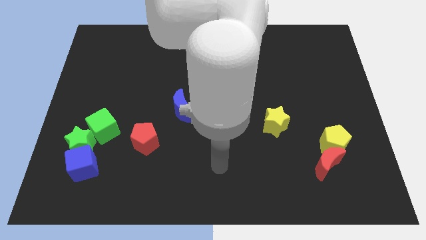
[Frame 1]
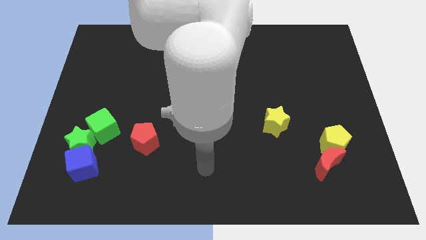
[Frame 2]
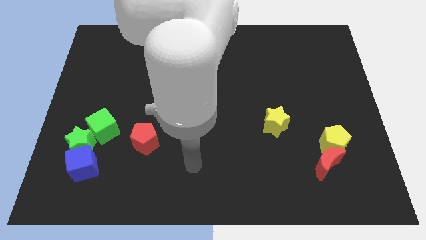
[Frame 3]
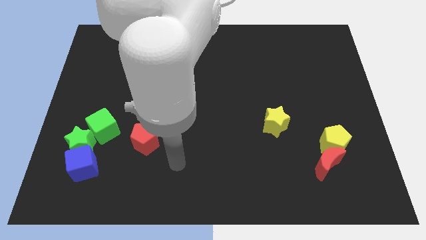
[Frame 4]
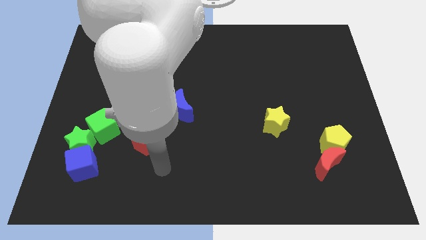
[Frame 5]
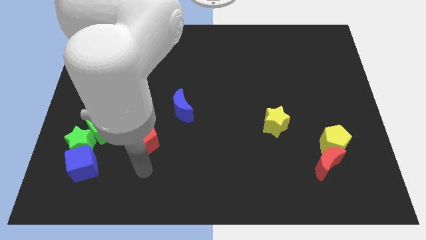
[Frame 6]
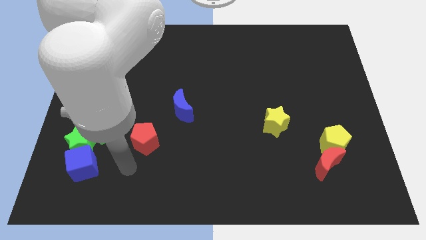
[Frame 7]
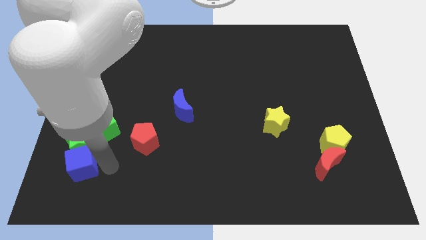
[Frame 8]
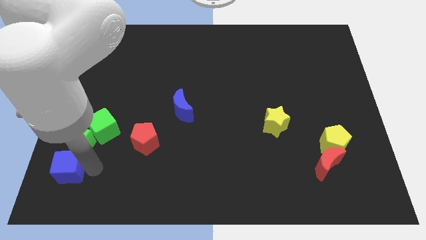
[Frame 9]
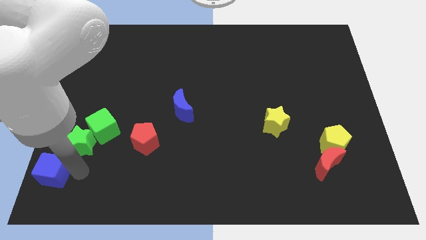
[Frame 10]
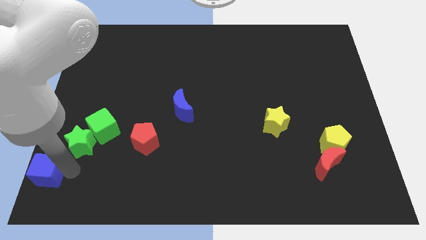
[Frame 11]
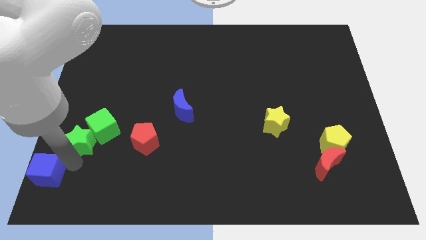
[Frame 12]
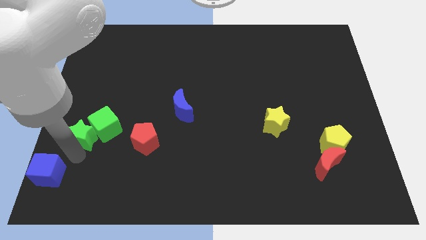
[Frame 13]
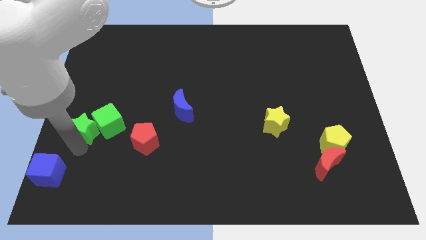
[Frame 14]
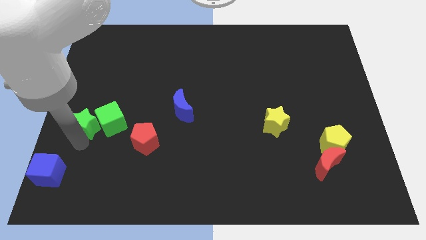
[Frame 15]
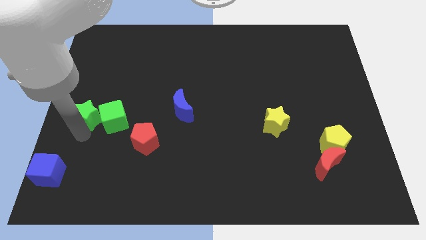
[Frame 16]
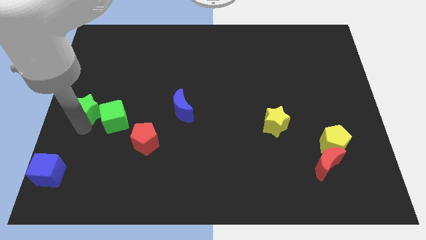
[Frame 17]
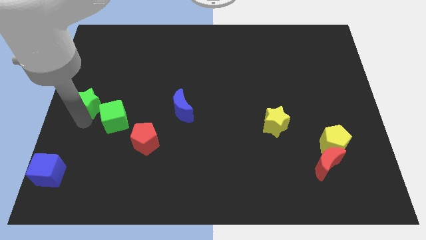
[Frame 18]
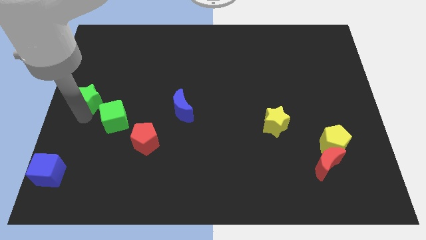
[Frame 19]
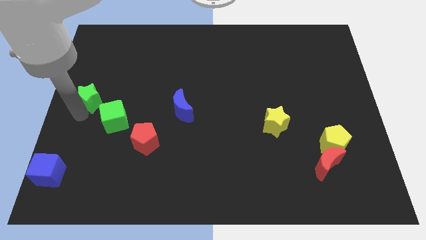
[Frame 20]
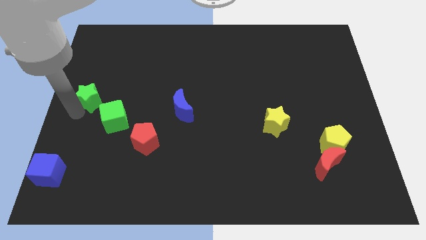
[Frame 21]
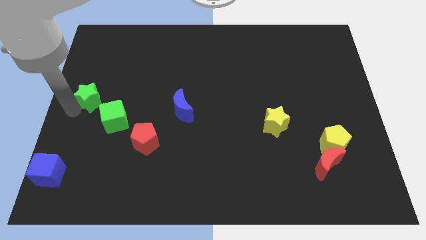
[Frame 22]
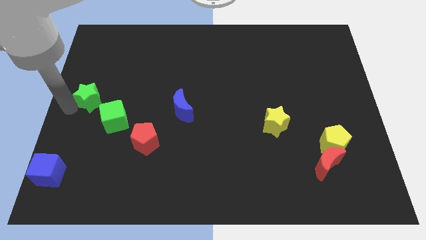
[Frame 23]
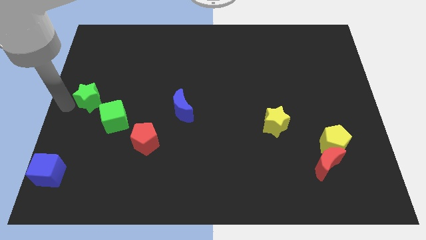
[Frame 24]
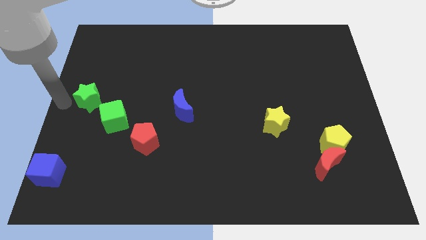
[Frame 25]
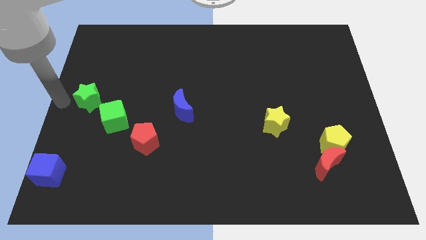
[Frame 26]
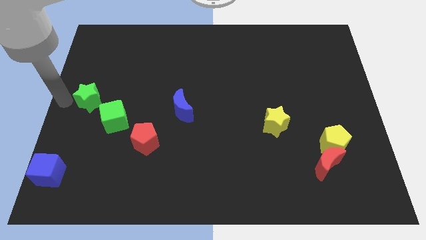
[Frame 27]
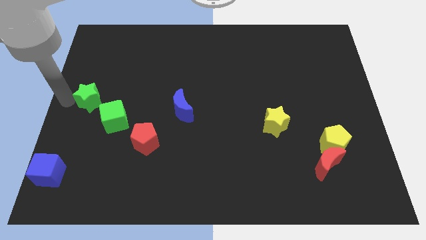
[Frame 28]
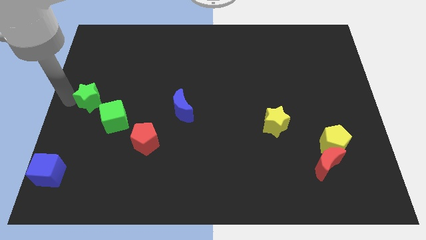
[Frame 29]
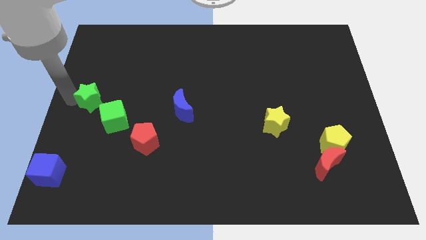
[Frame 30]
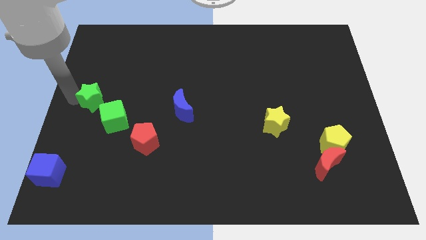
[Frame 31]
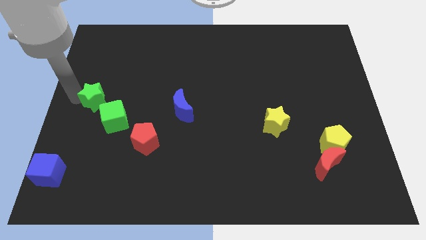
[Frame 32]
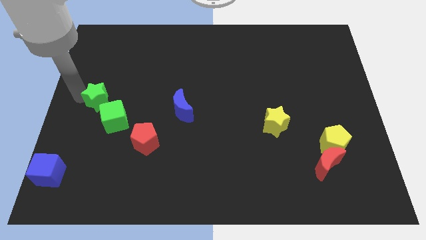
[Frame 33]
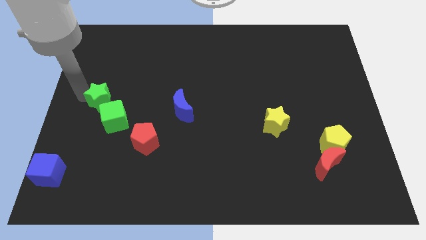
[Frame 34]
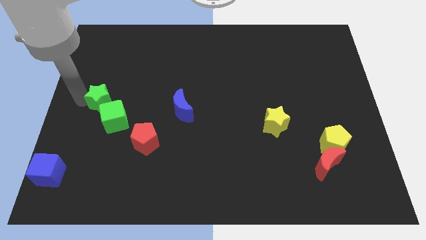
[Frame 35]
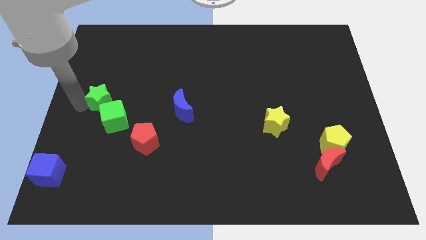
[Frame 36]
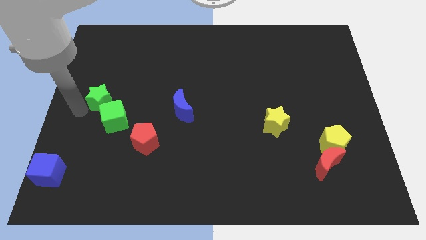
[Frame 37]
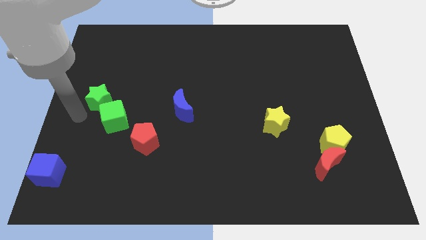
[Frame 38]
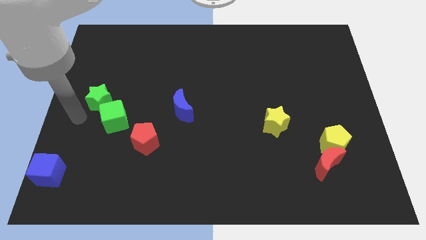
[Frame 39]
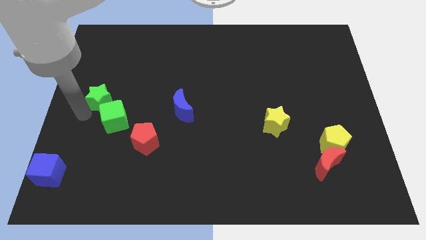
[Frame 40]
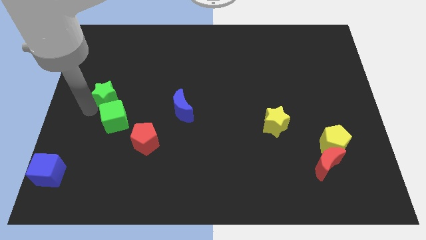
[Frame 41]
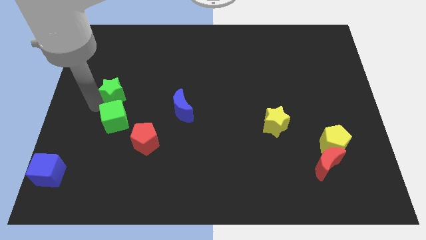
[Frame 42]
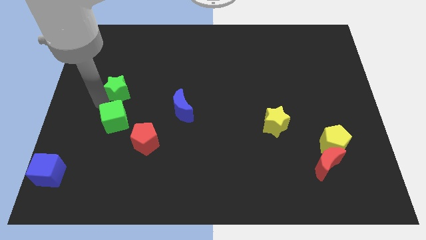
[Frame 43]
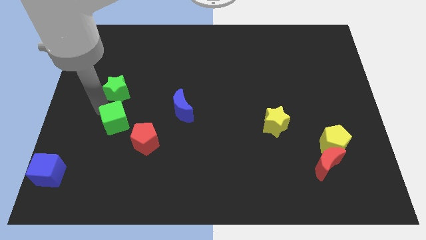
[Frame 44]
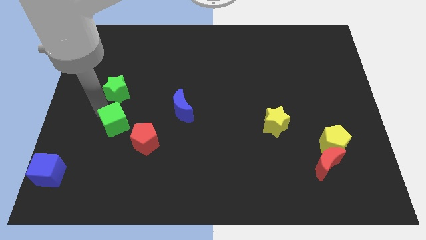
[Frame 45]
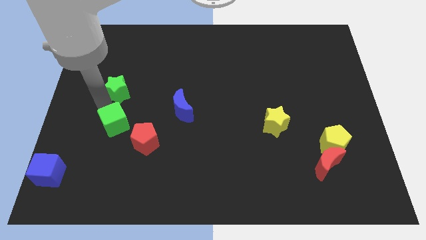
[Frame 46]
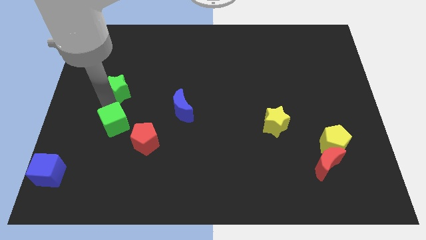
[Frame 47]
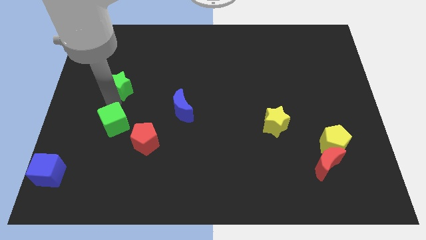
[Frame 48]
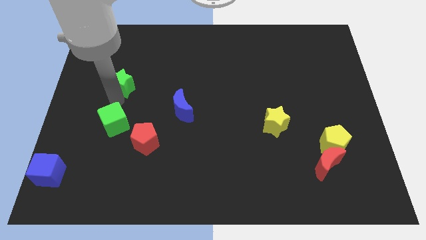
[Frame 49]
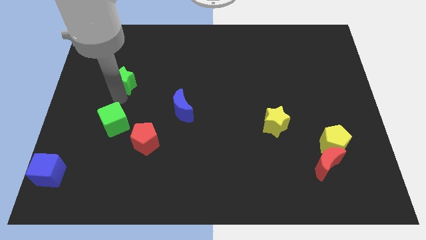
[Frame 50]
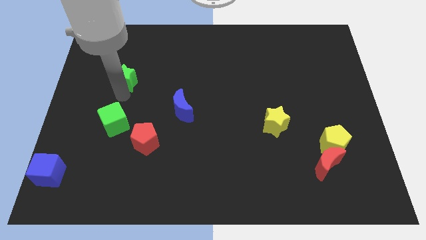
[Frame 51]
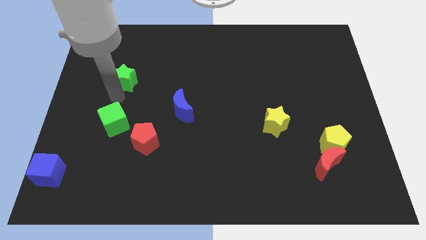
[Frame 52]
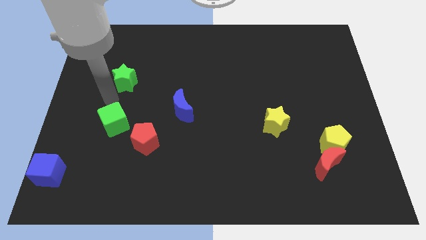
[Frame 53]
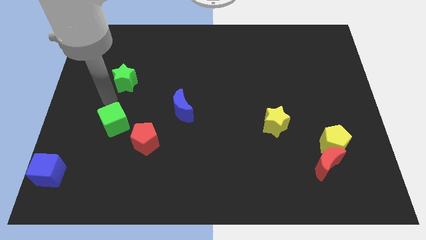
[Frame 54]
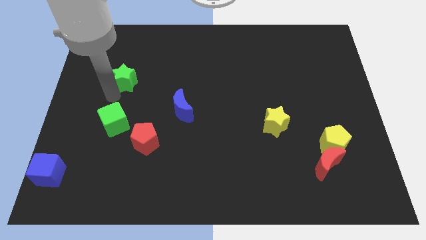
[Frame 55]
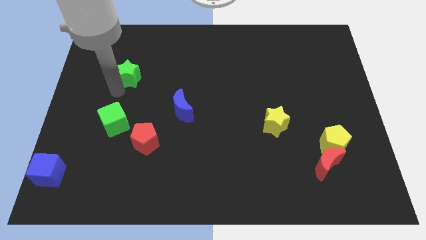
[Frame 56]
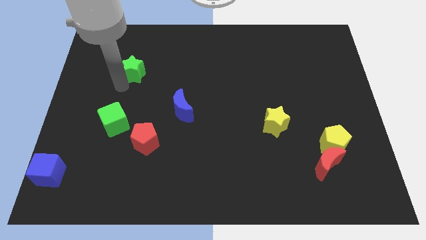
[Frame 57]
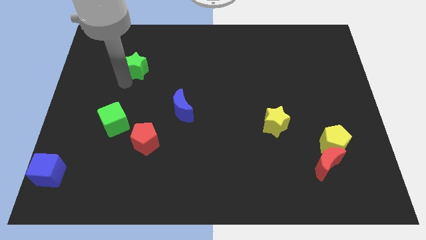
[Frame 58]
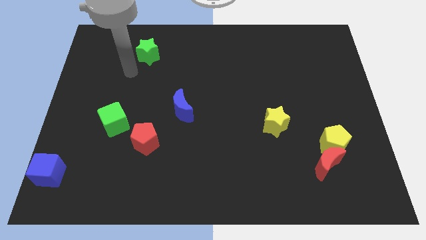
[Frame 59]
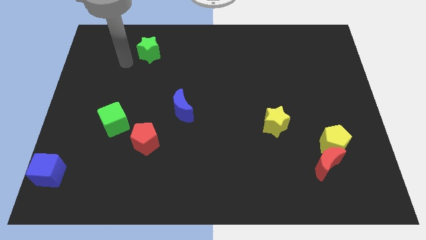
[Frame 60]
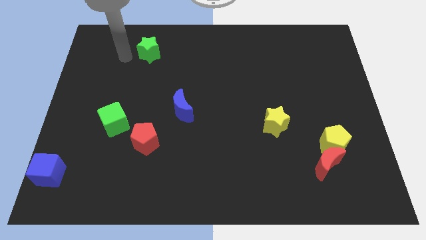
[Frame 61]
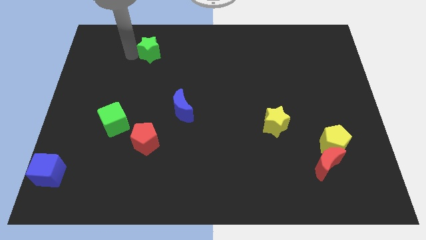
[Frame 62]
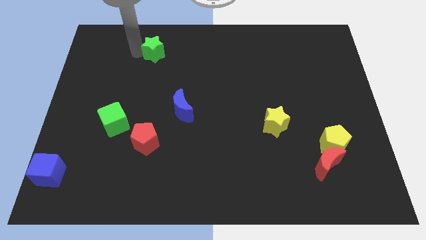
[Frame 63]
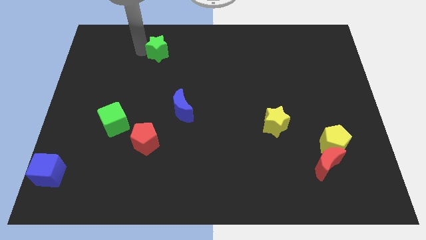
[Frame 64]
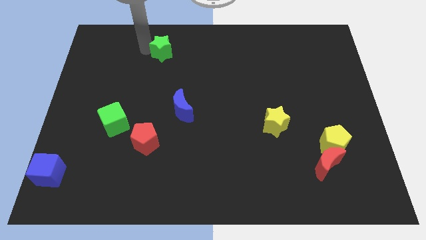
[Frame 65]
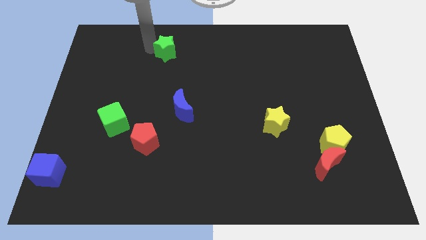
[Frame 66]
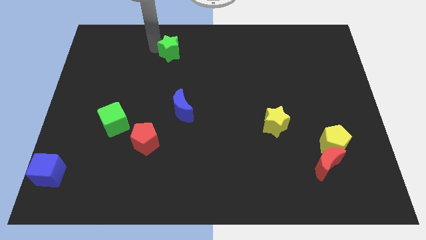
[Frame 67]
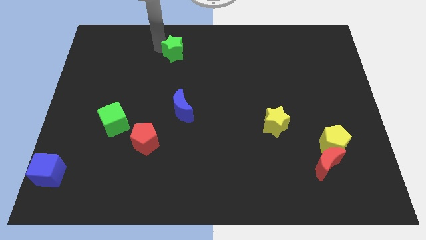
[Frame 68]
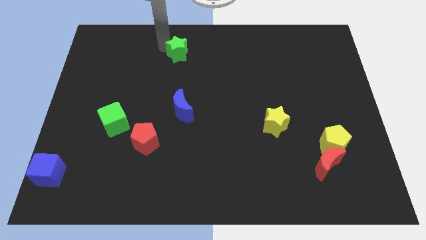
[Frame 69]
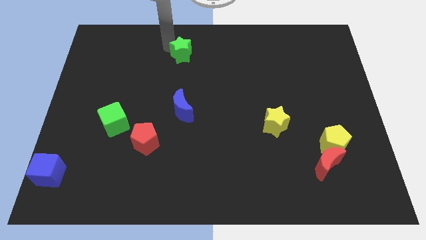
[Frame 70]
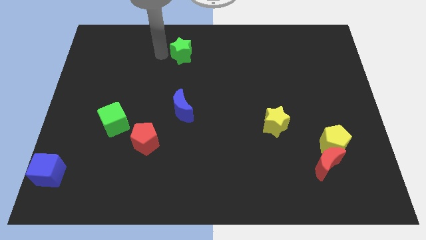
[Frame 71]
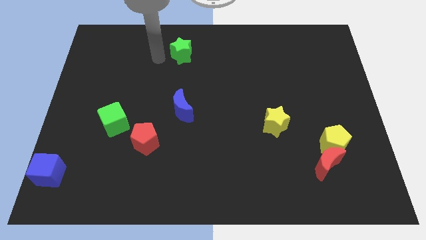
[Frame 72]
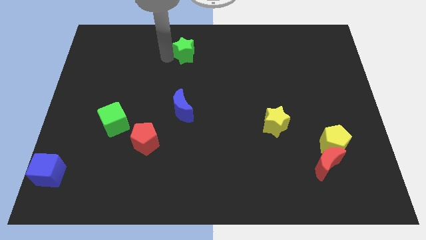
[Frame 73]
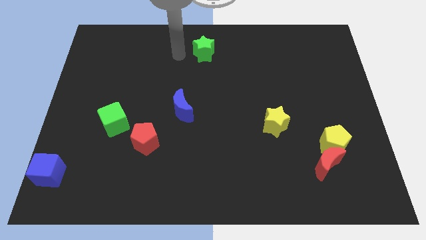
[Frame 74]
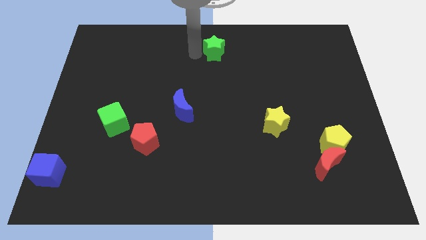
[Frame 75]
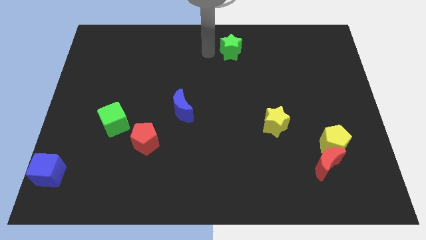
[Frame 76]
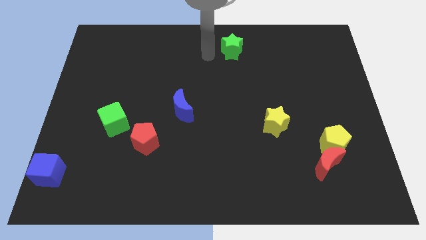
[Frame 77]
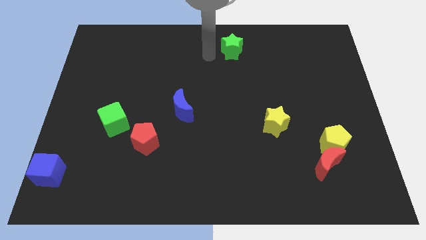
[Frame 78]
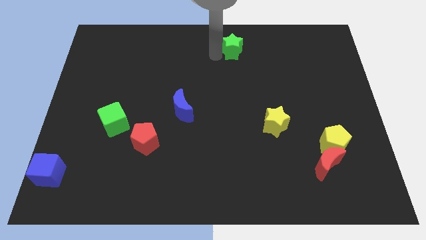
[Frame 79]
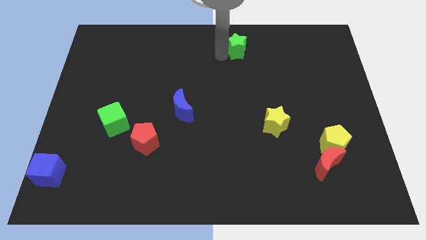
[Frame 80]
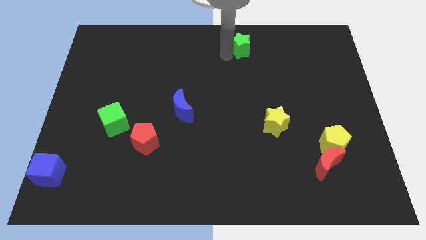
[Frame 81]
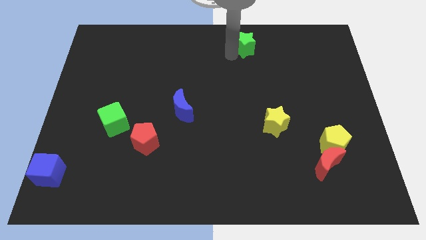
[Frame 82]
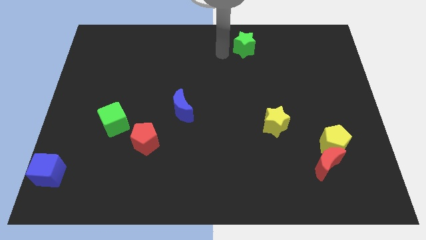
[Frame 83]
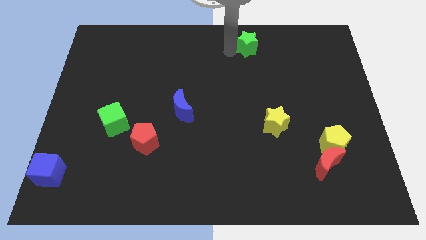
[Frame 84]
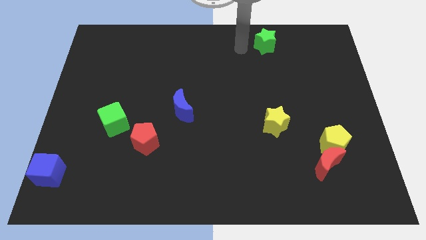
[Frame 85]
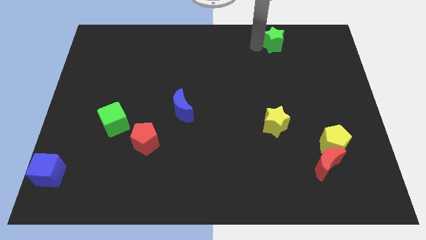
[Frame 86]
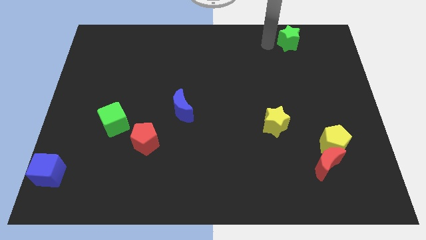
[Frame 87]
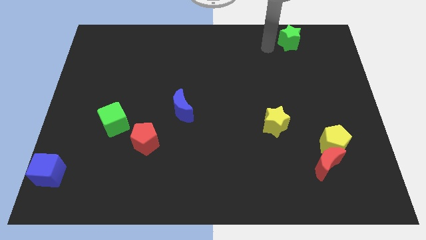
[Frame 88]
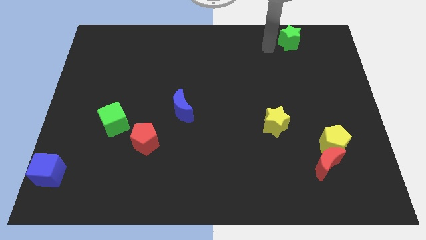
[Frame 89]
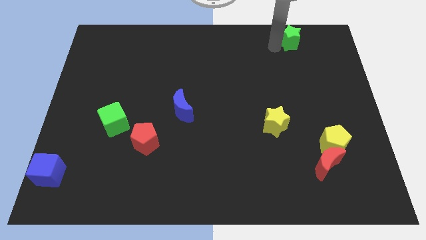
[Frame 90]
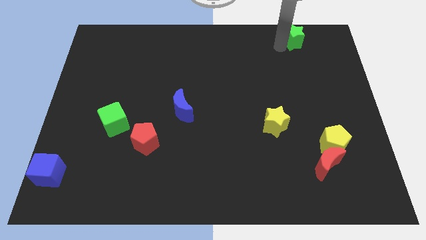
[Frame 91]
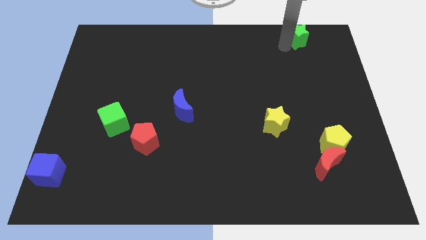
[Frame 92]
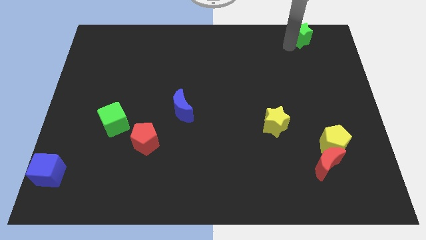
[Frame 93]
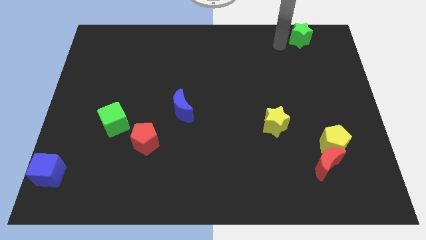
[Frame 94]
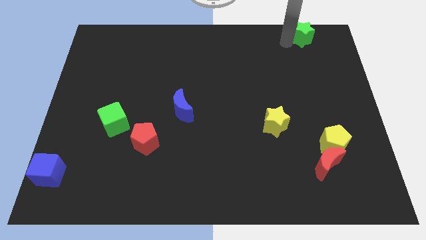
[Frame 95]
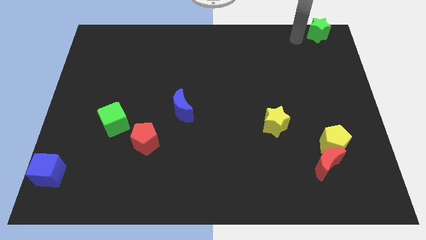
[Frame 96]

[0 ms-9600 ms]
slide the green star to the top right of the board
